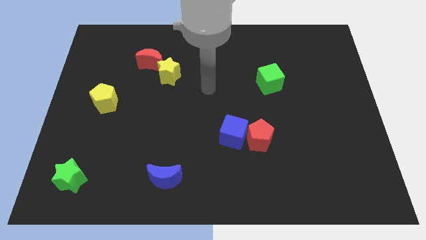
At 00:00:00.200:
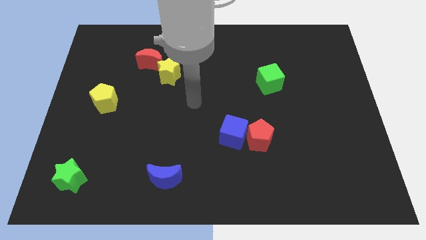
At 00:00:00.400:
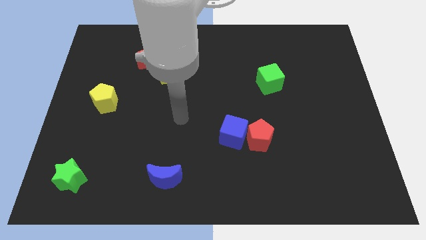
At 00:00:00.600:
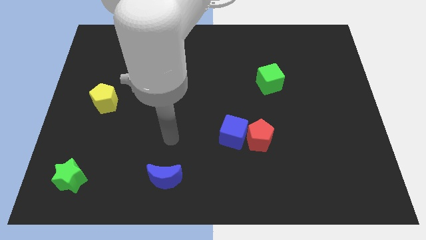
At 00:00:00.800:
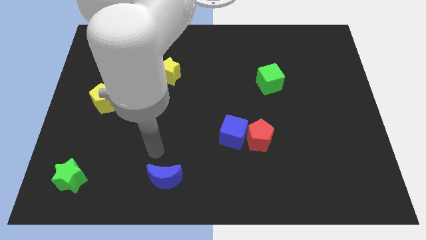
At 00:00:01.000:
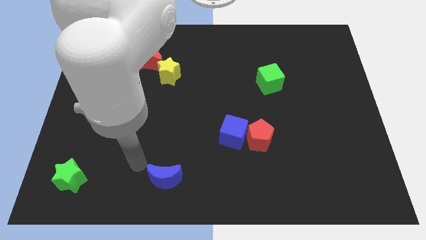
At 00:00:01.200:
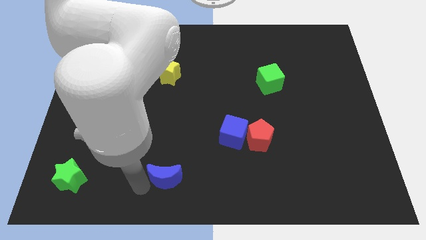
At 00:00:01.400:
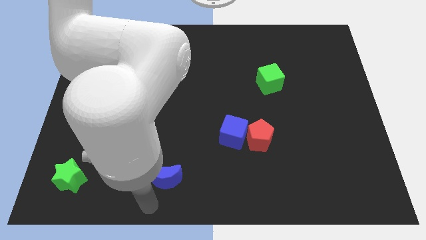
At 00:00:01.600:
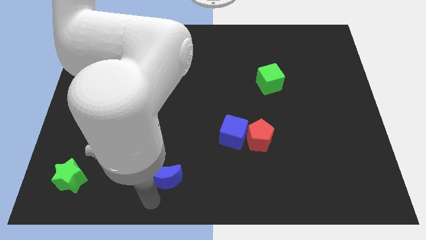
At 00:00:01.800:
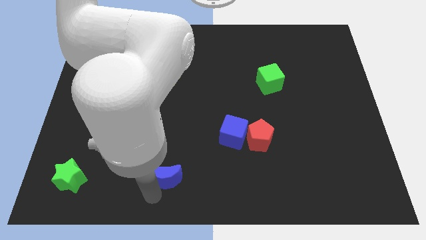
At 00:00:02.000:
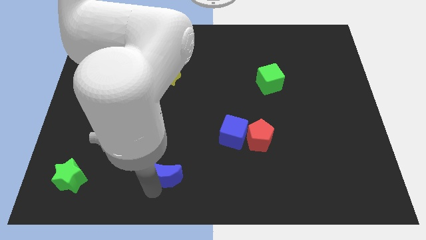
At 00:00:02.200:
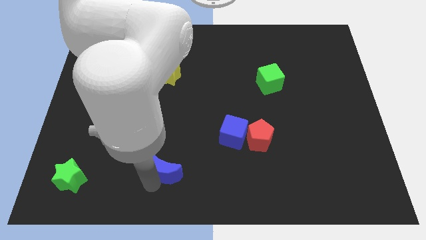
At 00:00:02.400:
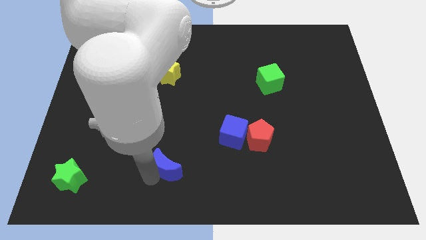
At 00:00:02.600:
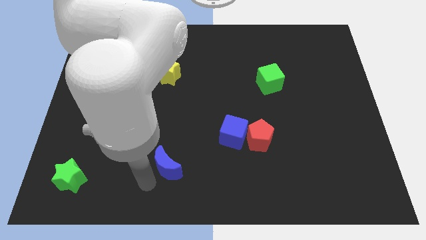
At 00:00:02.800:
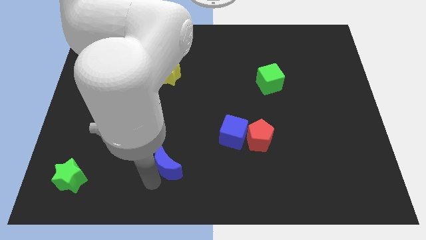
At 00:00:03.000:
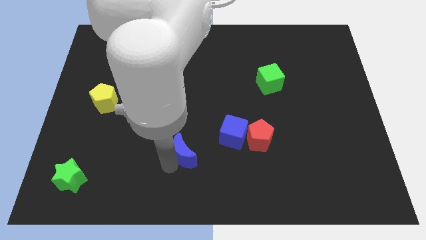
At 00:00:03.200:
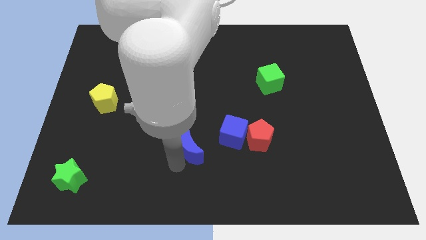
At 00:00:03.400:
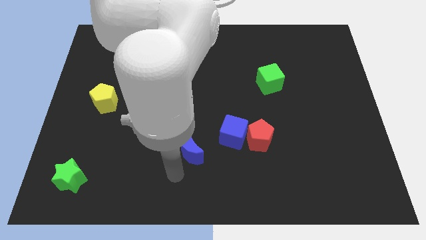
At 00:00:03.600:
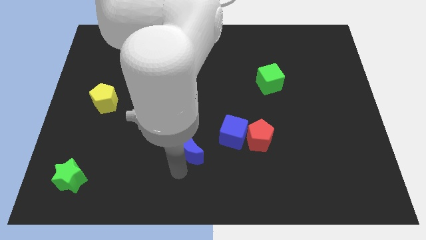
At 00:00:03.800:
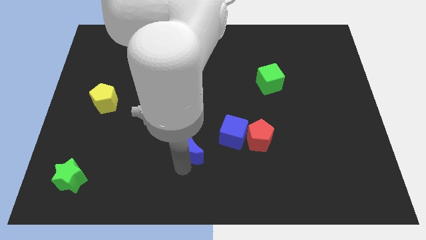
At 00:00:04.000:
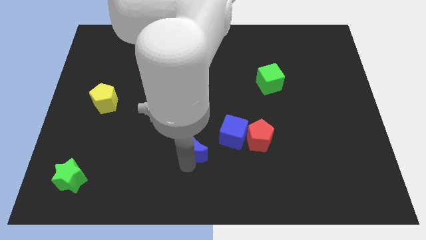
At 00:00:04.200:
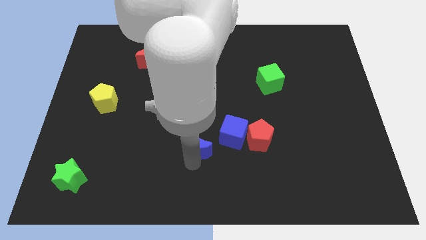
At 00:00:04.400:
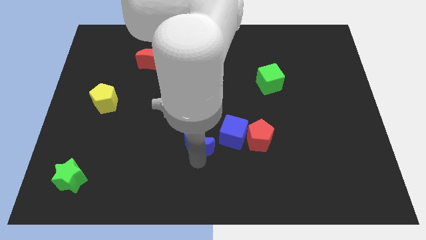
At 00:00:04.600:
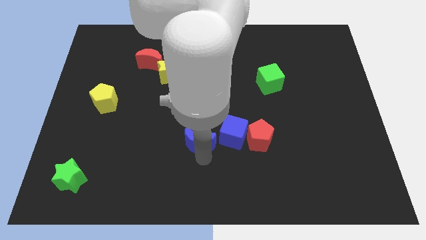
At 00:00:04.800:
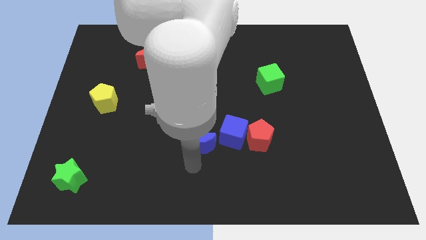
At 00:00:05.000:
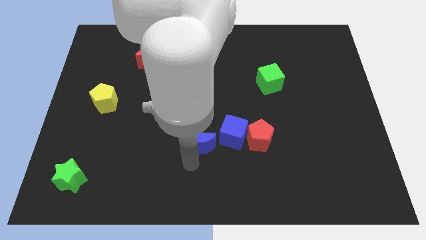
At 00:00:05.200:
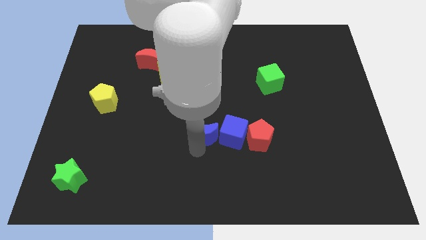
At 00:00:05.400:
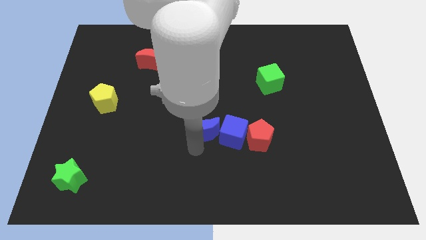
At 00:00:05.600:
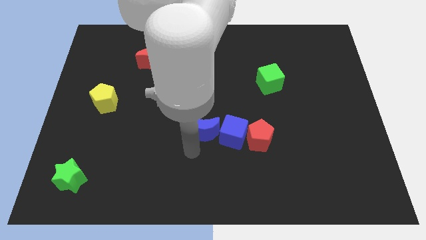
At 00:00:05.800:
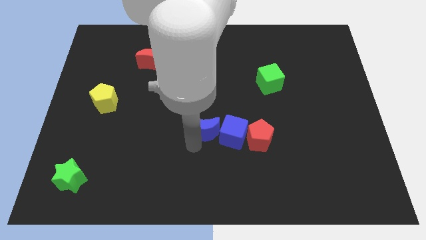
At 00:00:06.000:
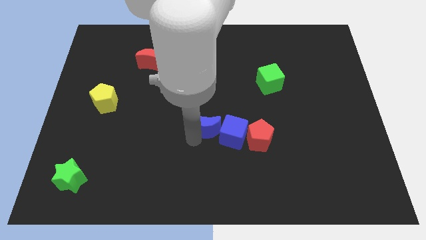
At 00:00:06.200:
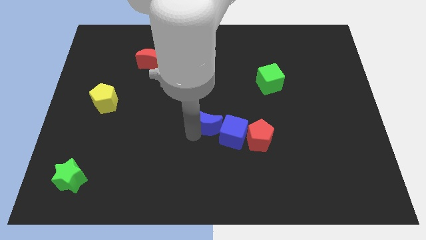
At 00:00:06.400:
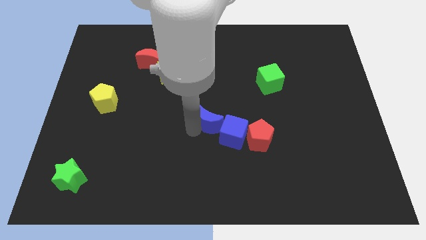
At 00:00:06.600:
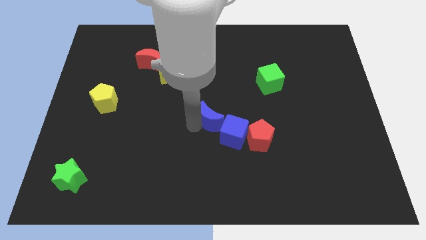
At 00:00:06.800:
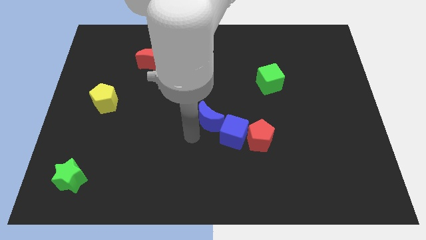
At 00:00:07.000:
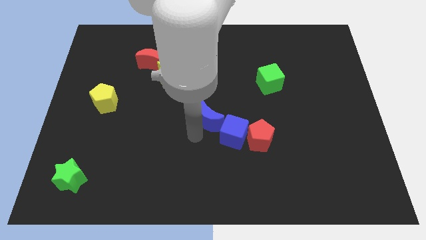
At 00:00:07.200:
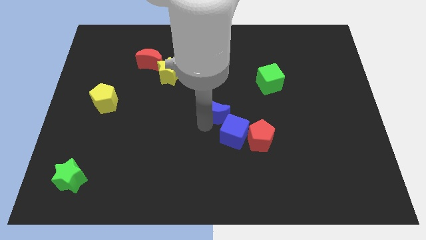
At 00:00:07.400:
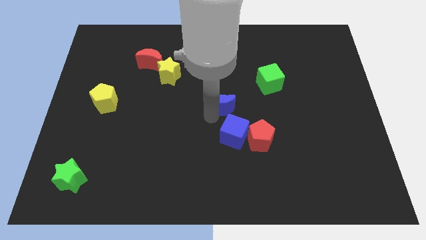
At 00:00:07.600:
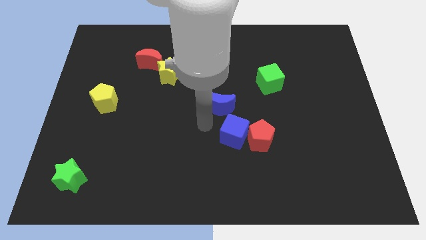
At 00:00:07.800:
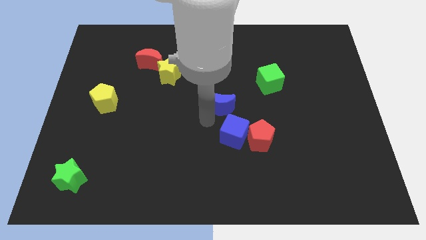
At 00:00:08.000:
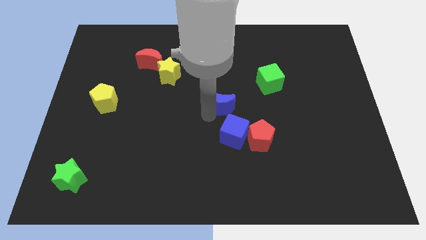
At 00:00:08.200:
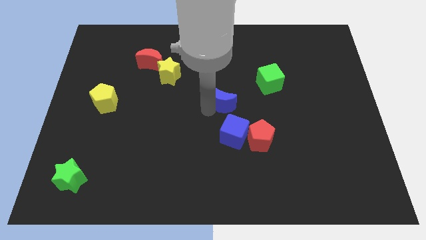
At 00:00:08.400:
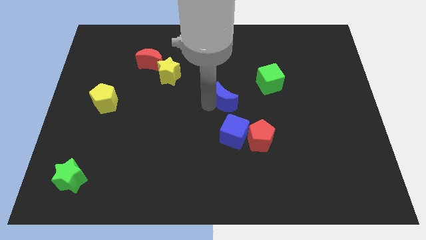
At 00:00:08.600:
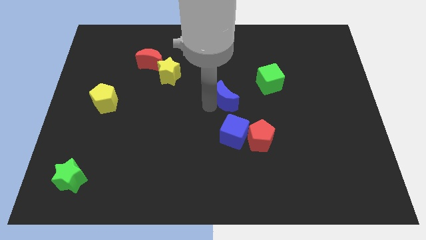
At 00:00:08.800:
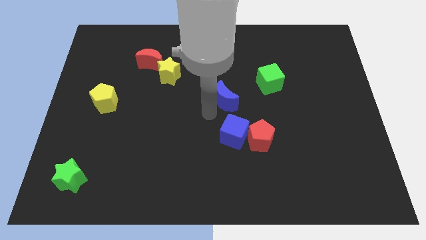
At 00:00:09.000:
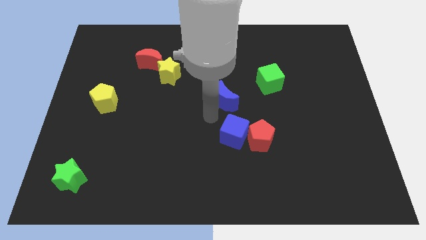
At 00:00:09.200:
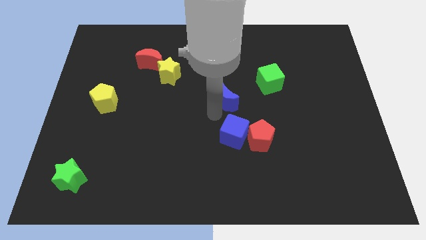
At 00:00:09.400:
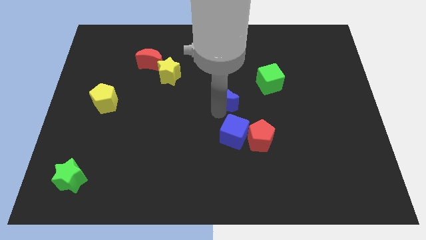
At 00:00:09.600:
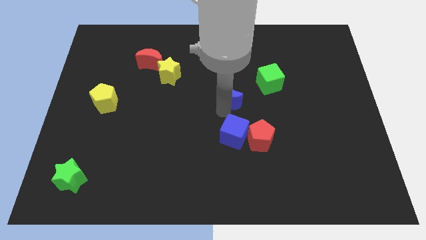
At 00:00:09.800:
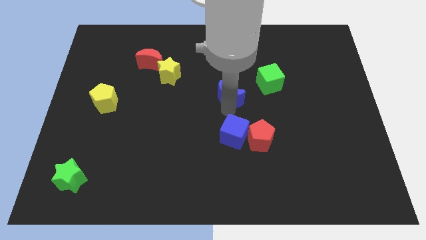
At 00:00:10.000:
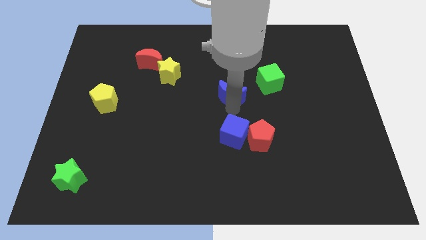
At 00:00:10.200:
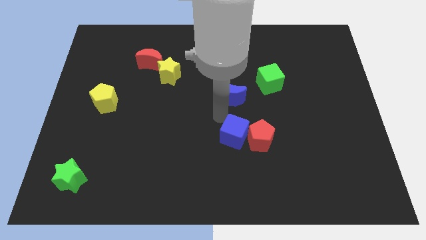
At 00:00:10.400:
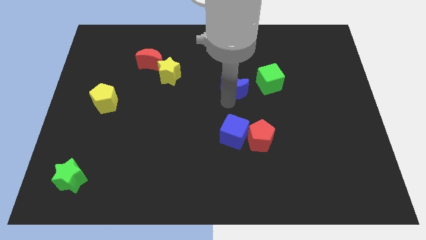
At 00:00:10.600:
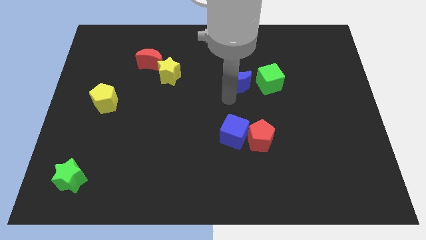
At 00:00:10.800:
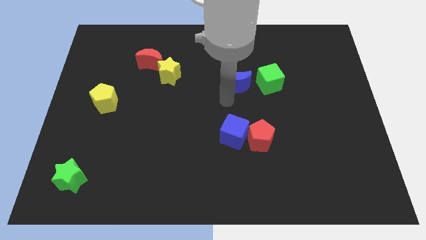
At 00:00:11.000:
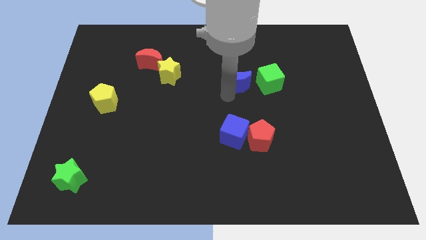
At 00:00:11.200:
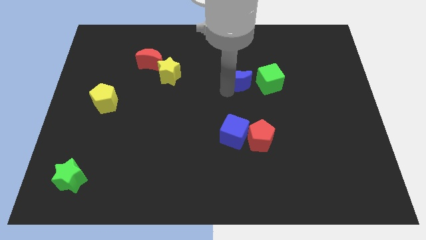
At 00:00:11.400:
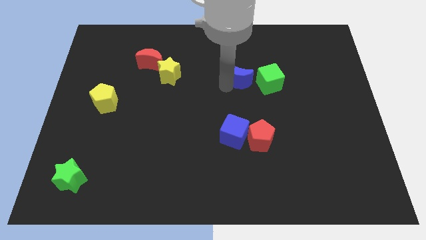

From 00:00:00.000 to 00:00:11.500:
slide the blue moon to the top left side of the green cube

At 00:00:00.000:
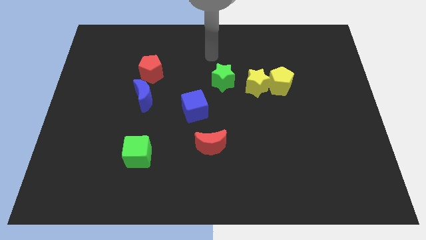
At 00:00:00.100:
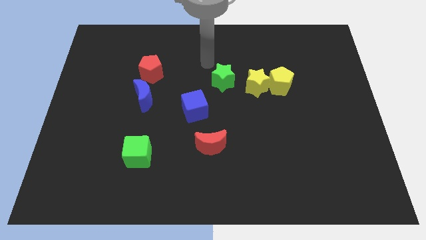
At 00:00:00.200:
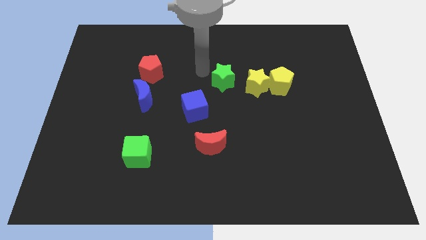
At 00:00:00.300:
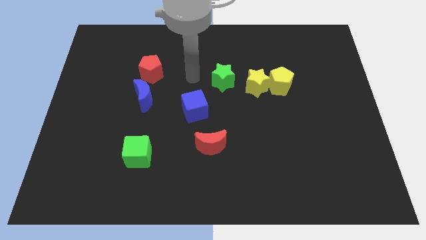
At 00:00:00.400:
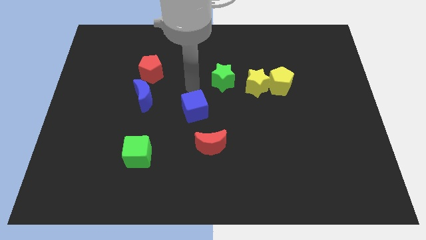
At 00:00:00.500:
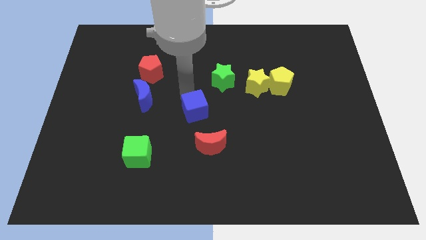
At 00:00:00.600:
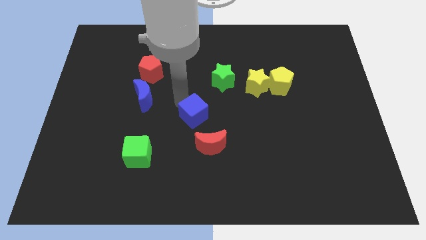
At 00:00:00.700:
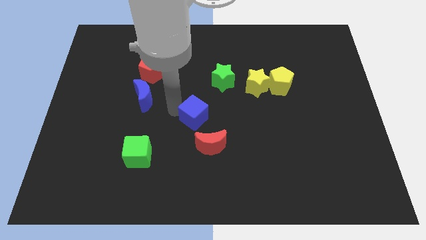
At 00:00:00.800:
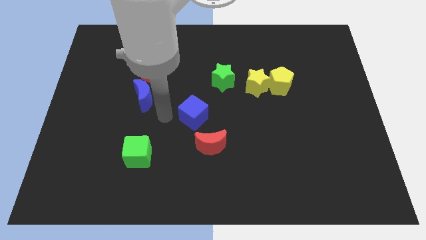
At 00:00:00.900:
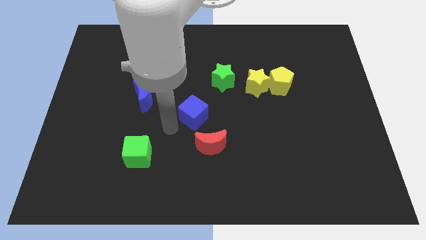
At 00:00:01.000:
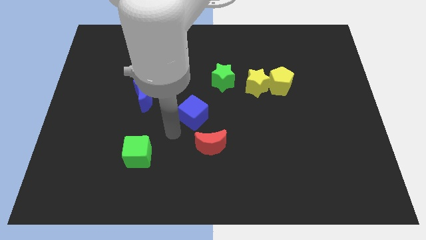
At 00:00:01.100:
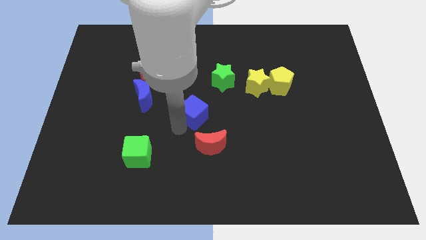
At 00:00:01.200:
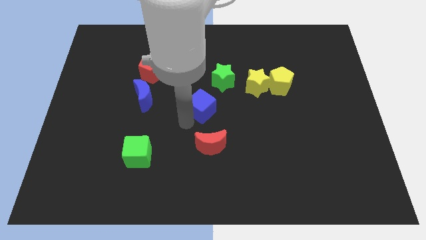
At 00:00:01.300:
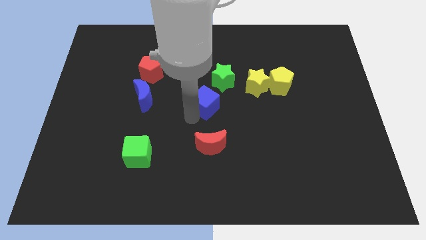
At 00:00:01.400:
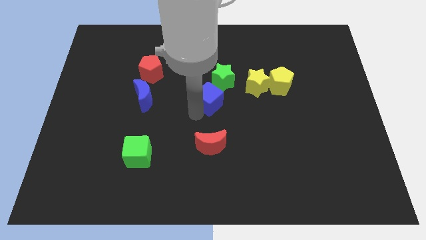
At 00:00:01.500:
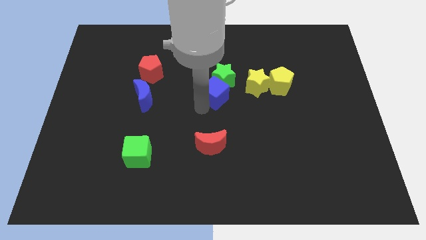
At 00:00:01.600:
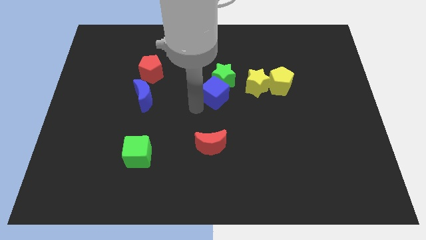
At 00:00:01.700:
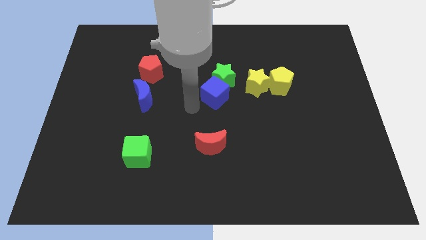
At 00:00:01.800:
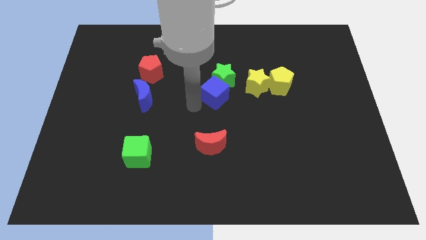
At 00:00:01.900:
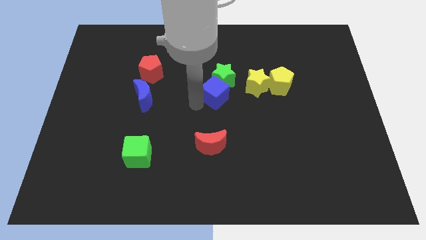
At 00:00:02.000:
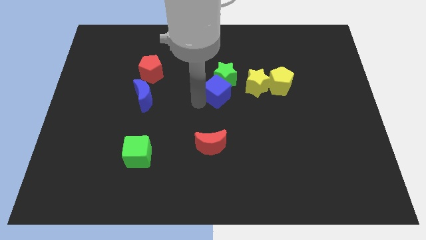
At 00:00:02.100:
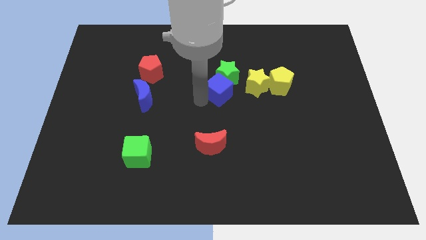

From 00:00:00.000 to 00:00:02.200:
slide the blue cube to the left of the yellow pentagon
